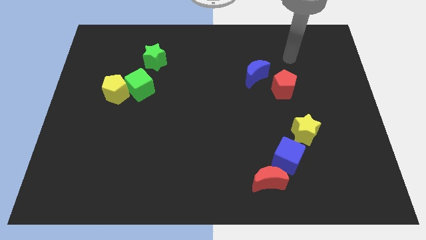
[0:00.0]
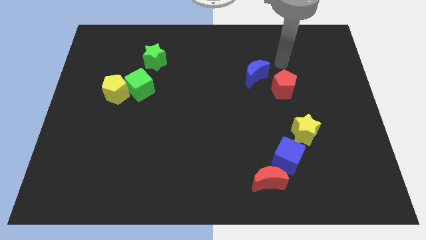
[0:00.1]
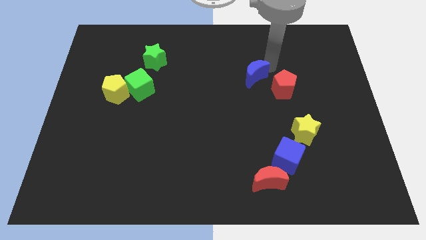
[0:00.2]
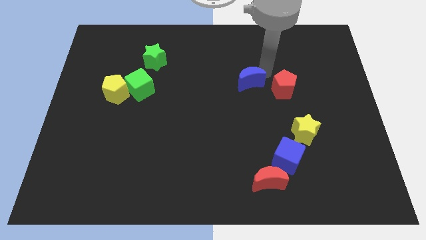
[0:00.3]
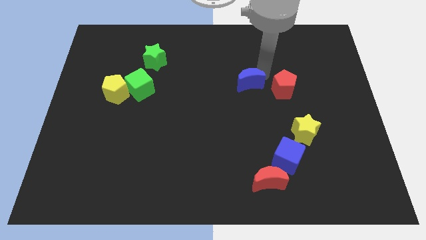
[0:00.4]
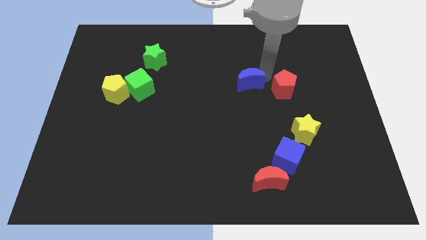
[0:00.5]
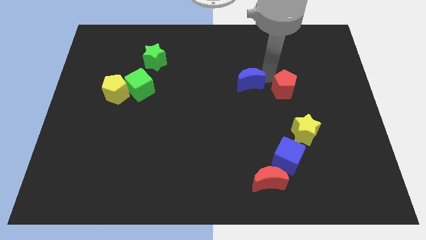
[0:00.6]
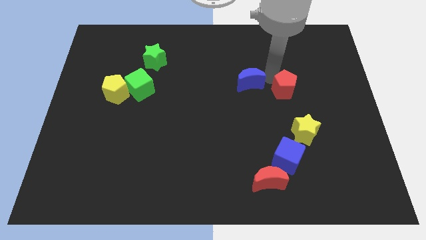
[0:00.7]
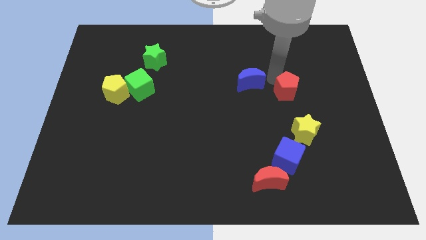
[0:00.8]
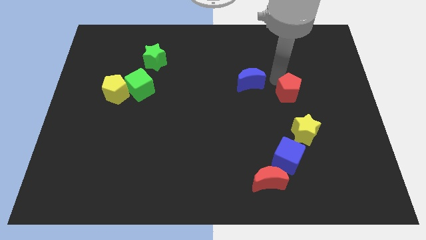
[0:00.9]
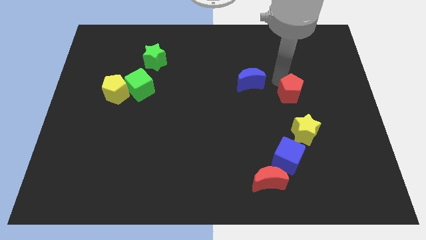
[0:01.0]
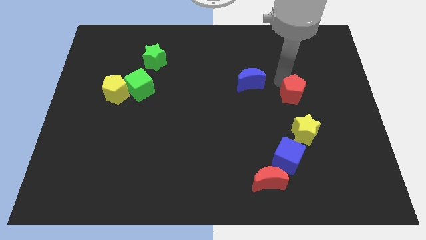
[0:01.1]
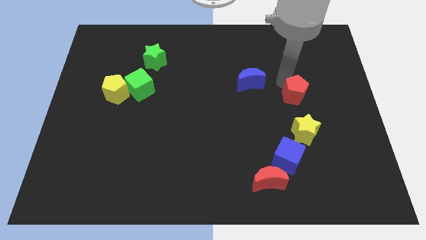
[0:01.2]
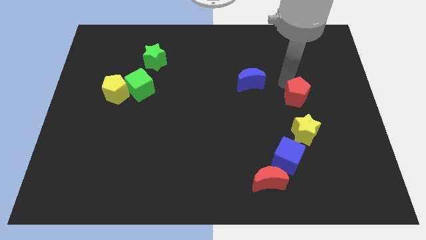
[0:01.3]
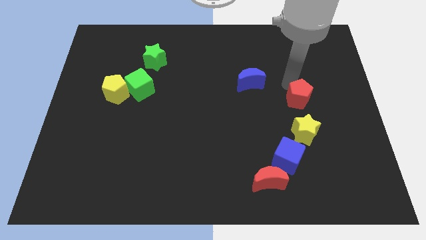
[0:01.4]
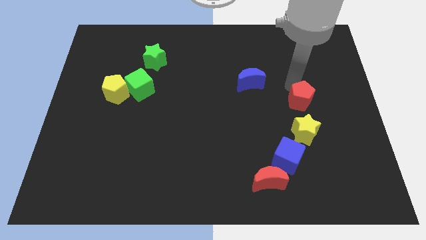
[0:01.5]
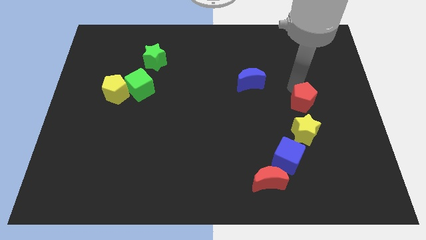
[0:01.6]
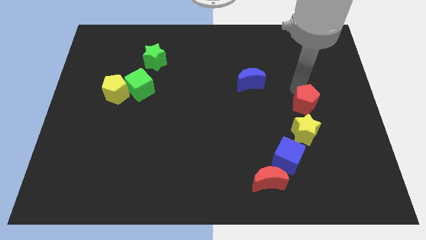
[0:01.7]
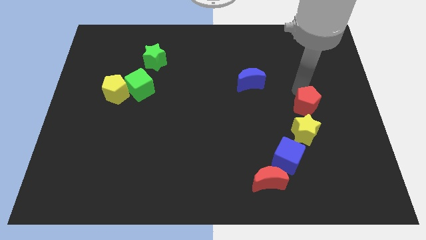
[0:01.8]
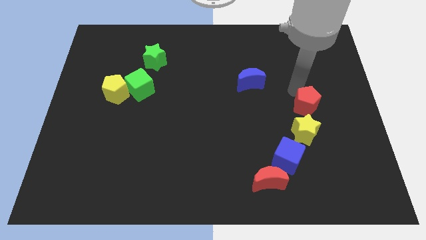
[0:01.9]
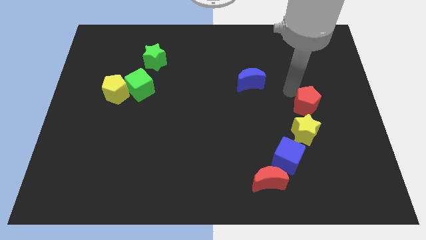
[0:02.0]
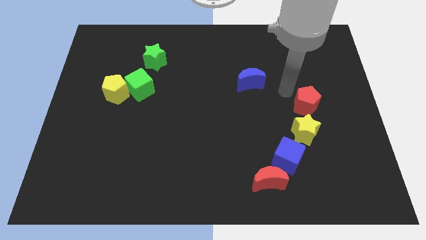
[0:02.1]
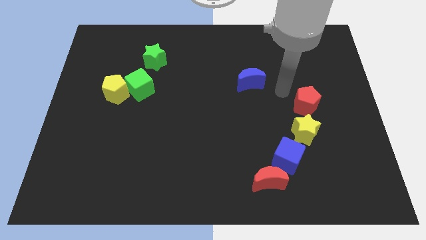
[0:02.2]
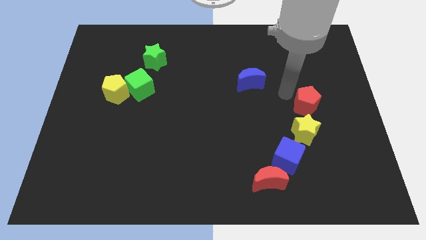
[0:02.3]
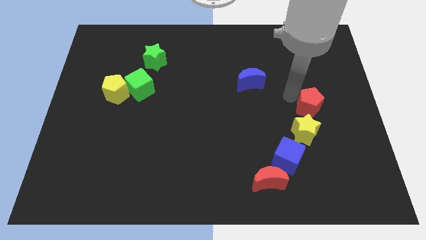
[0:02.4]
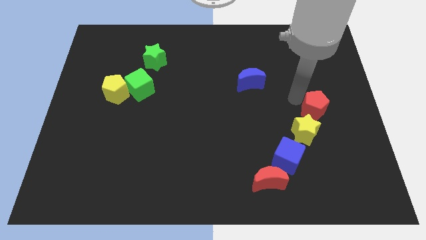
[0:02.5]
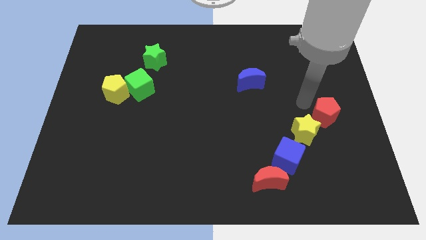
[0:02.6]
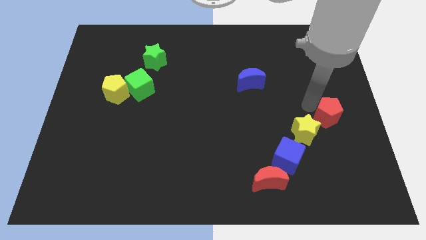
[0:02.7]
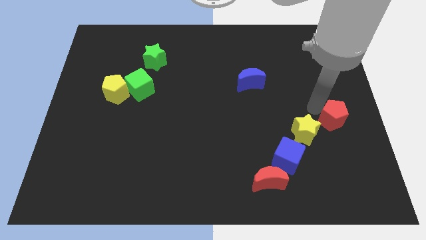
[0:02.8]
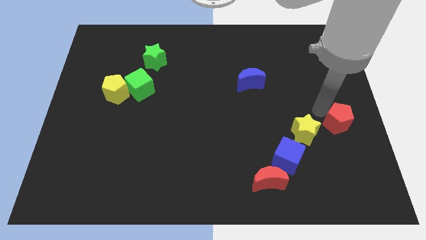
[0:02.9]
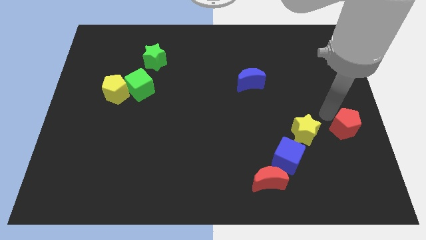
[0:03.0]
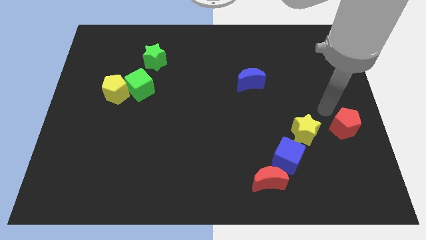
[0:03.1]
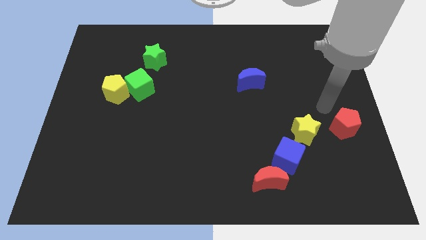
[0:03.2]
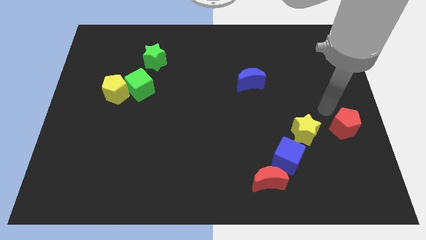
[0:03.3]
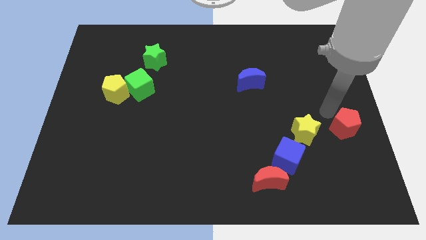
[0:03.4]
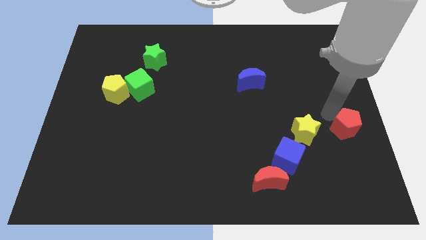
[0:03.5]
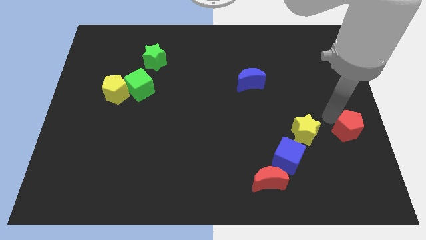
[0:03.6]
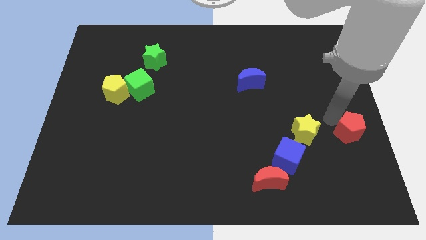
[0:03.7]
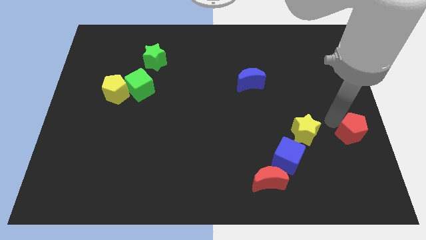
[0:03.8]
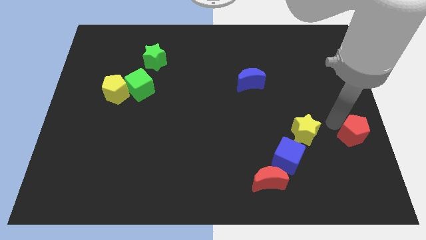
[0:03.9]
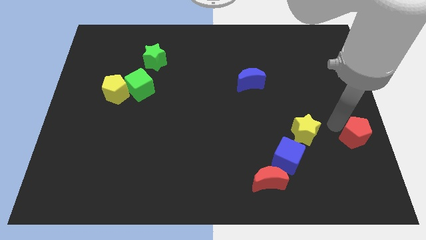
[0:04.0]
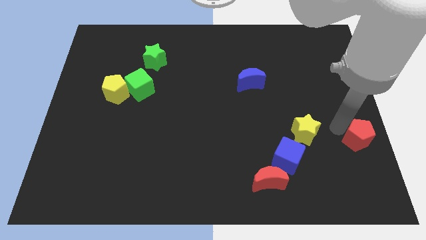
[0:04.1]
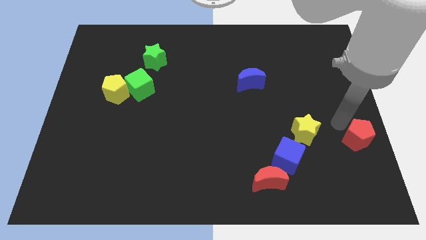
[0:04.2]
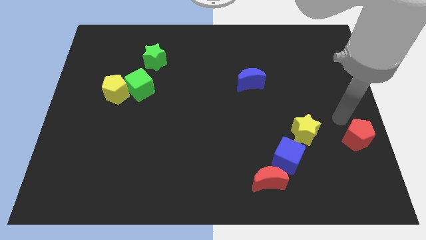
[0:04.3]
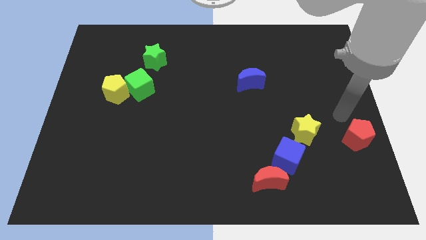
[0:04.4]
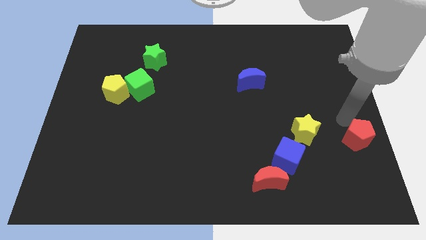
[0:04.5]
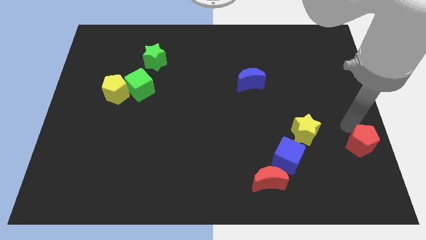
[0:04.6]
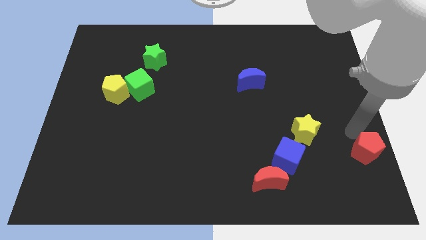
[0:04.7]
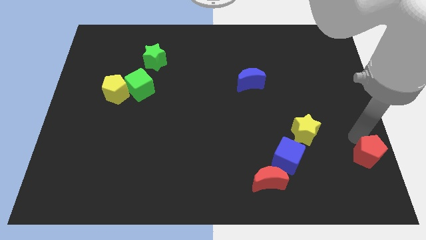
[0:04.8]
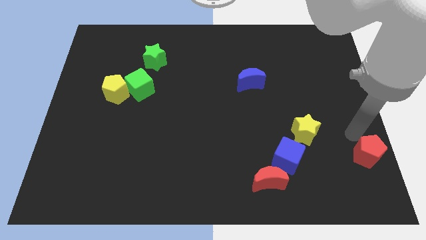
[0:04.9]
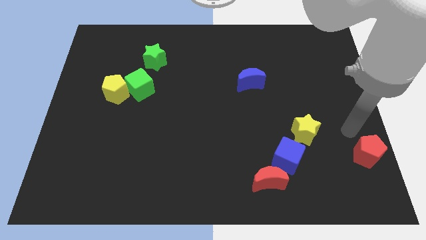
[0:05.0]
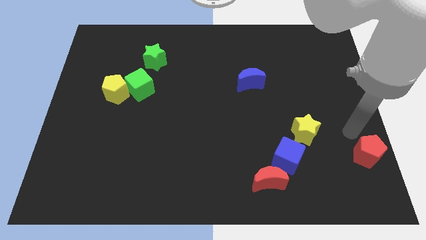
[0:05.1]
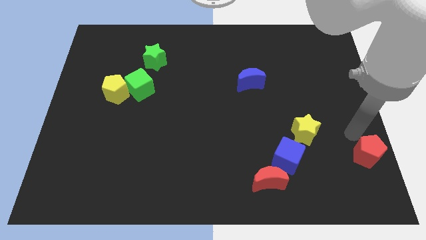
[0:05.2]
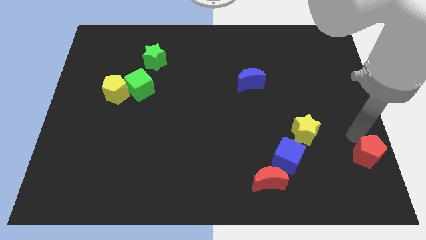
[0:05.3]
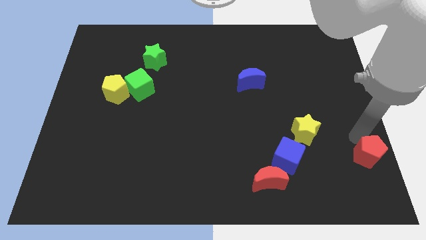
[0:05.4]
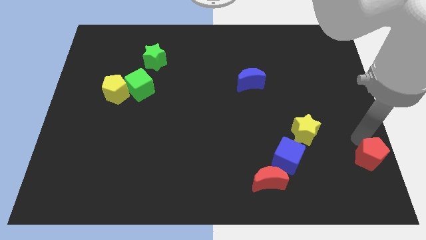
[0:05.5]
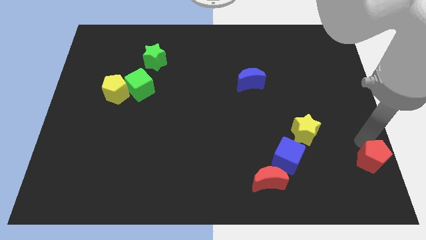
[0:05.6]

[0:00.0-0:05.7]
push the red pentagon to the bottom right of the board

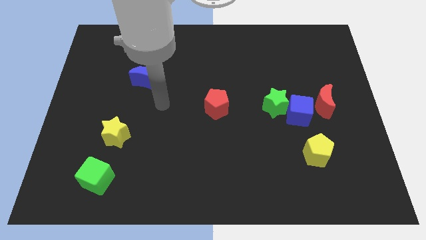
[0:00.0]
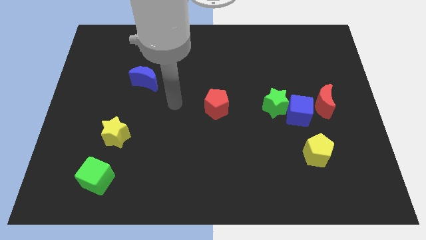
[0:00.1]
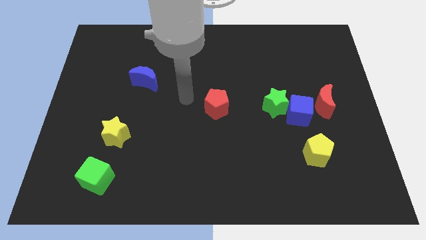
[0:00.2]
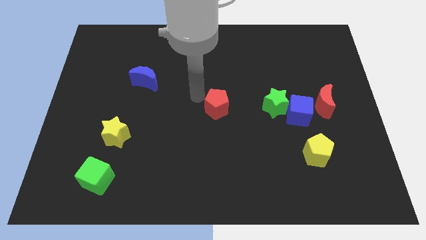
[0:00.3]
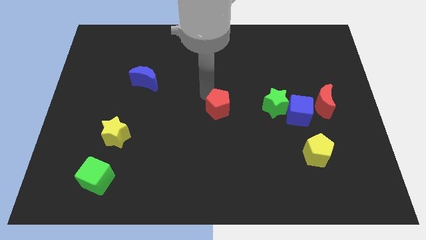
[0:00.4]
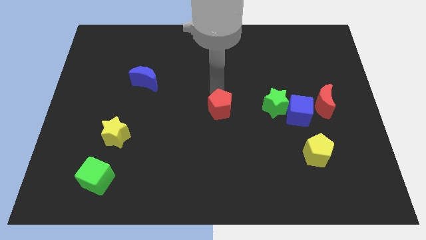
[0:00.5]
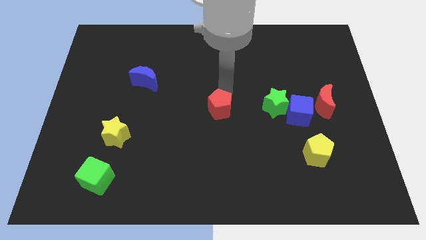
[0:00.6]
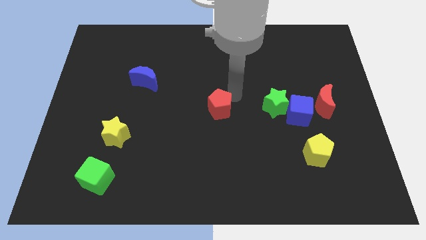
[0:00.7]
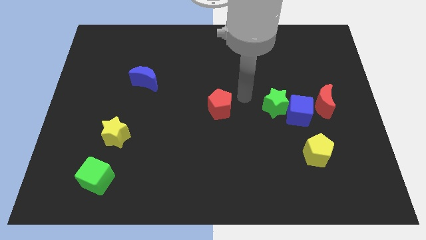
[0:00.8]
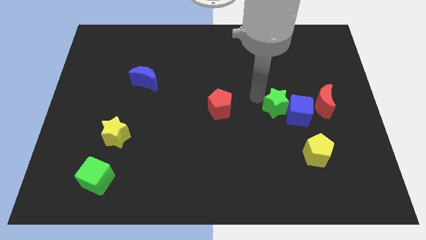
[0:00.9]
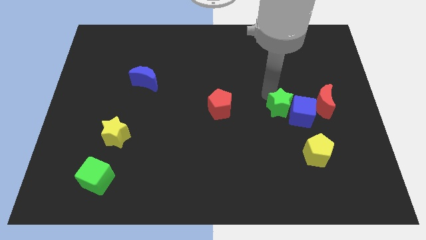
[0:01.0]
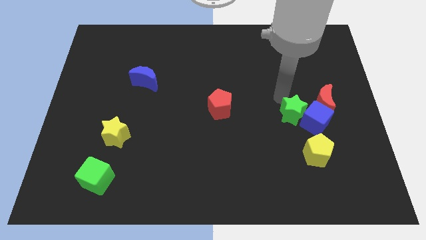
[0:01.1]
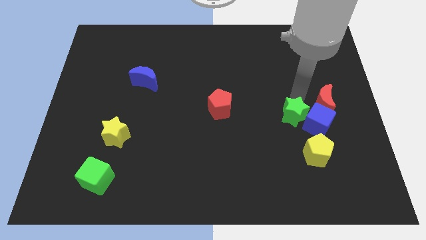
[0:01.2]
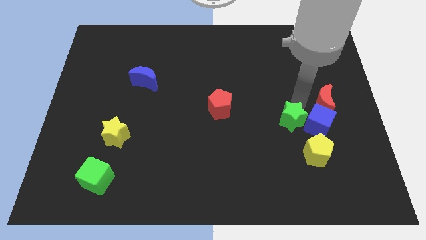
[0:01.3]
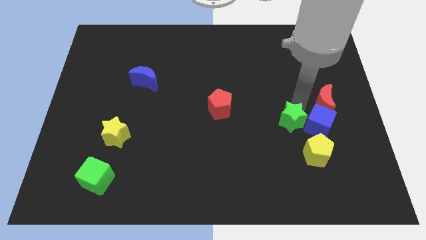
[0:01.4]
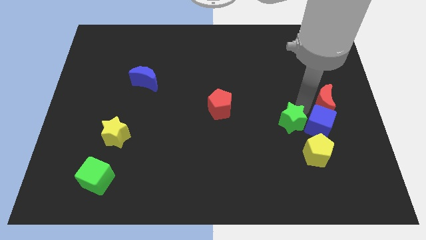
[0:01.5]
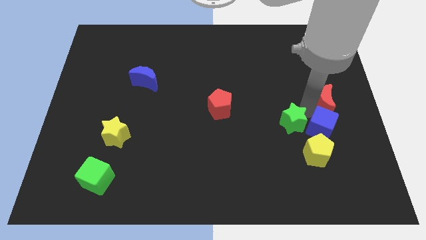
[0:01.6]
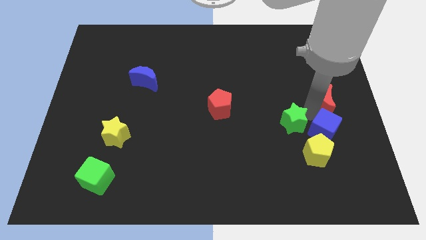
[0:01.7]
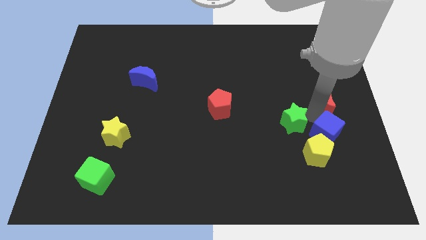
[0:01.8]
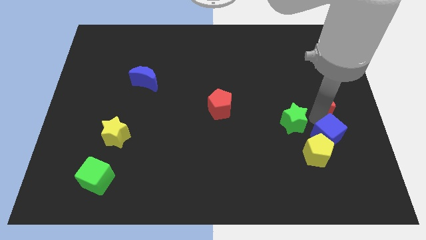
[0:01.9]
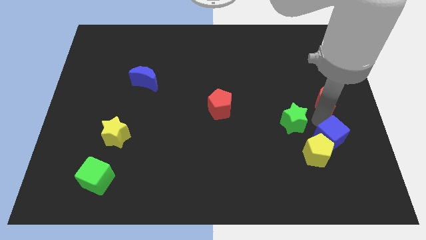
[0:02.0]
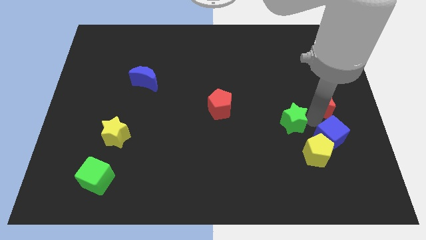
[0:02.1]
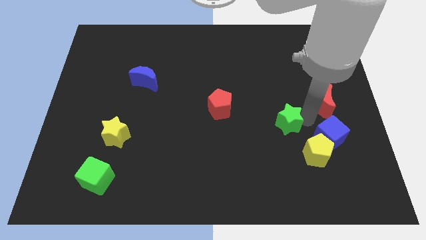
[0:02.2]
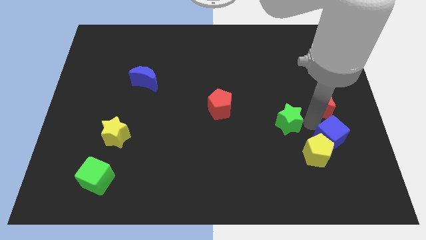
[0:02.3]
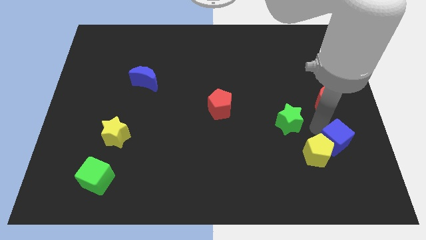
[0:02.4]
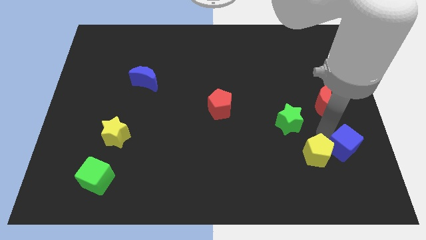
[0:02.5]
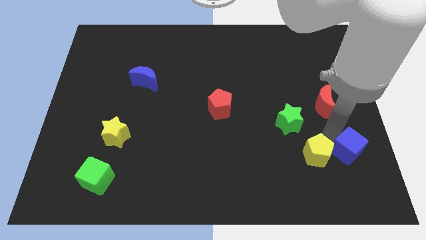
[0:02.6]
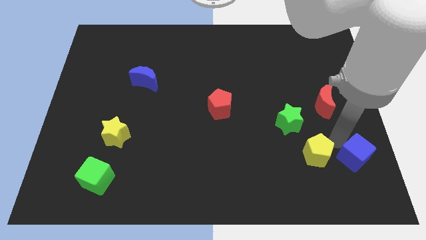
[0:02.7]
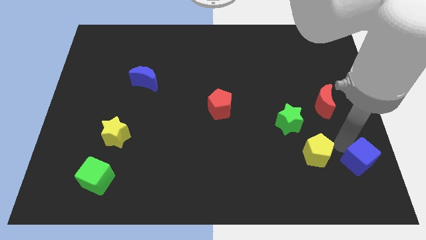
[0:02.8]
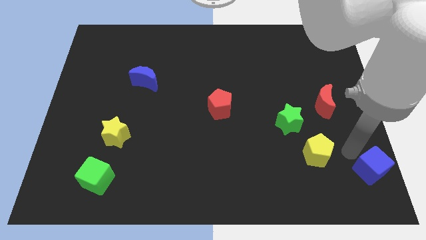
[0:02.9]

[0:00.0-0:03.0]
slide the blue cube to the bottom right corner
